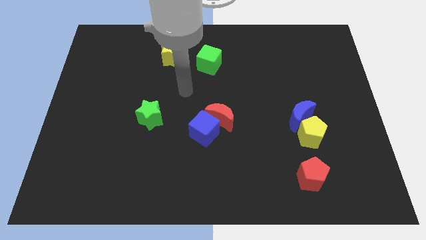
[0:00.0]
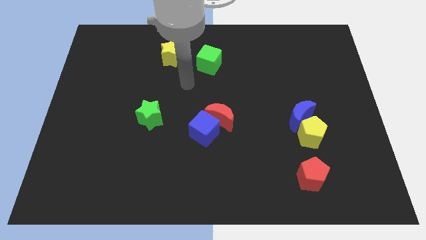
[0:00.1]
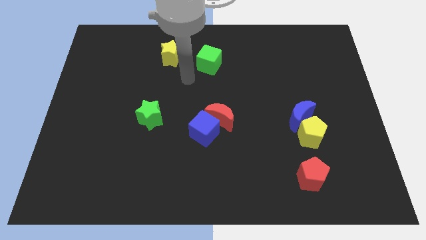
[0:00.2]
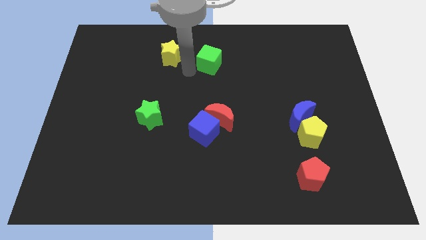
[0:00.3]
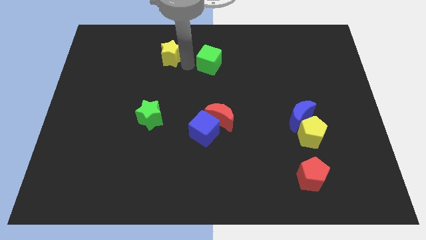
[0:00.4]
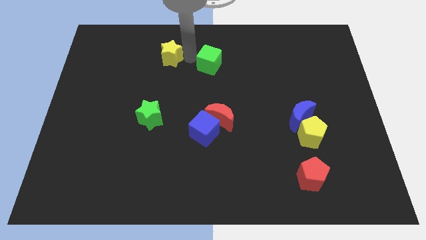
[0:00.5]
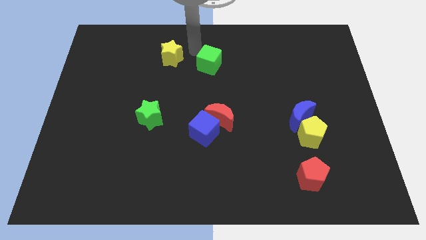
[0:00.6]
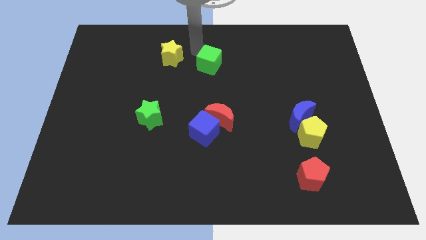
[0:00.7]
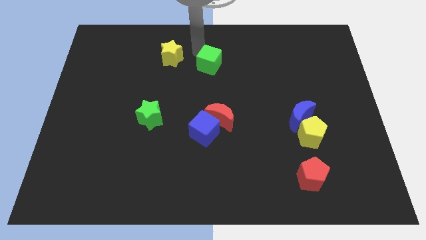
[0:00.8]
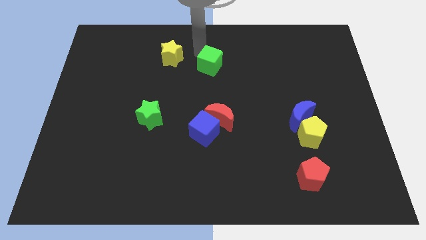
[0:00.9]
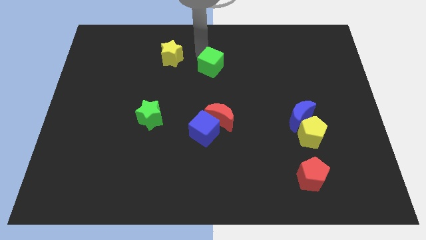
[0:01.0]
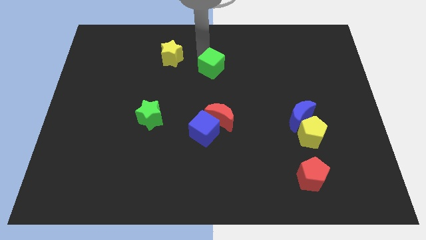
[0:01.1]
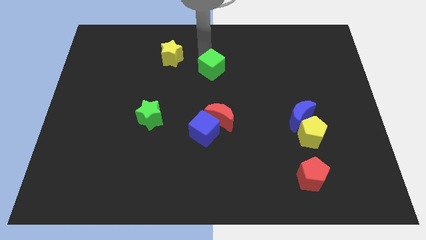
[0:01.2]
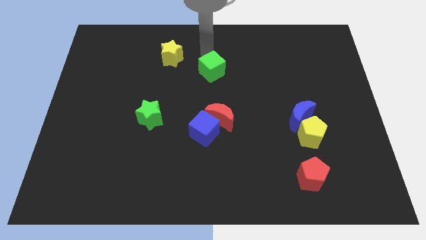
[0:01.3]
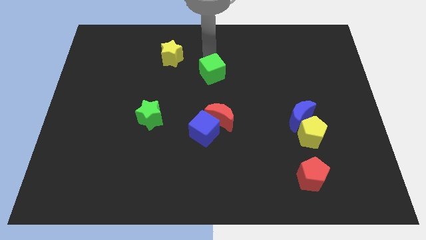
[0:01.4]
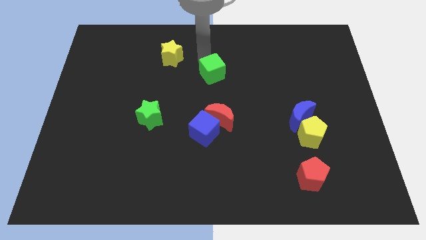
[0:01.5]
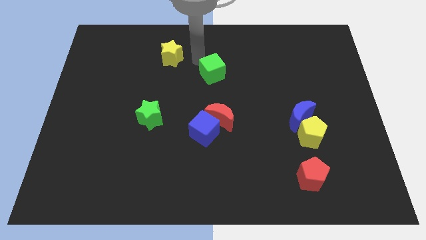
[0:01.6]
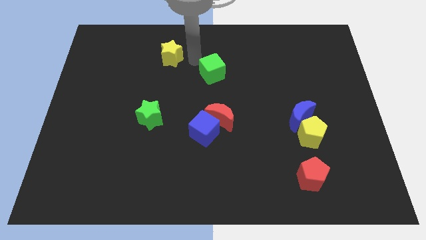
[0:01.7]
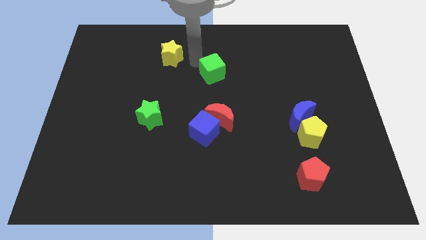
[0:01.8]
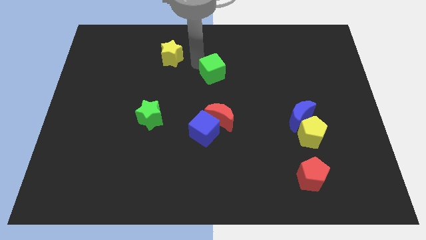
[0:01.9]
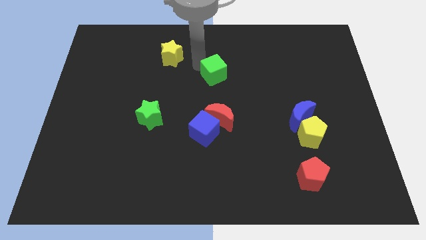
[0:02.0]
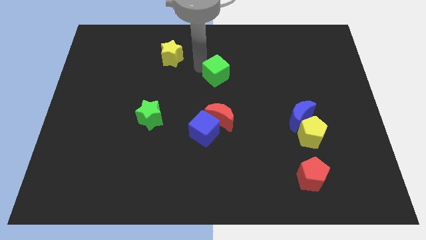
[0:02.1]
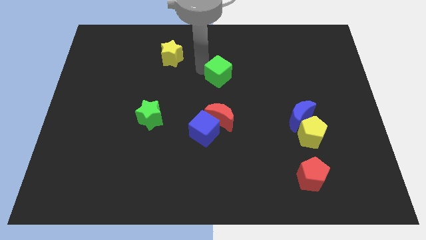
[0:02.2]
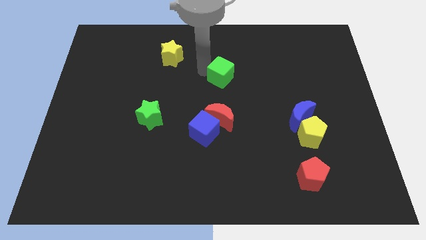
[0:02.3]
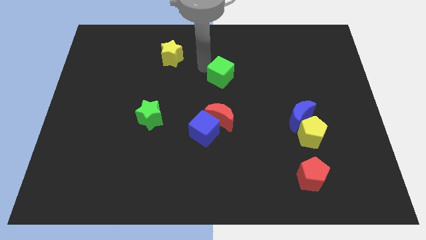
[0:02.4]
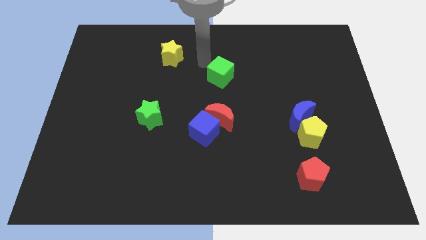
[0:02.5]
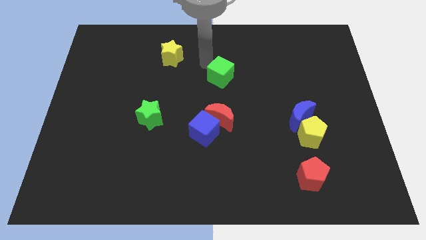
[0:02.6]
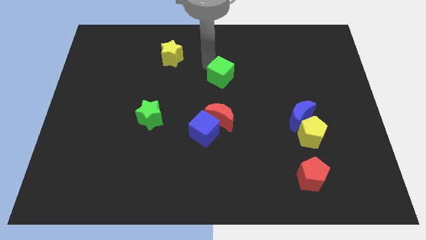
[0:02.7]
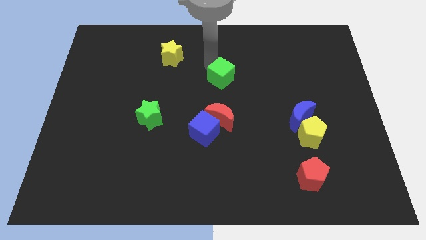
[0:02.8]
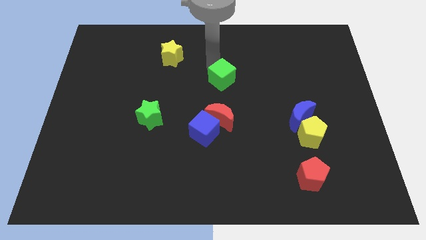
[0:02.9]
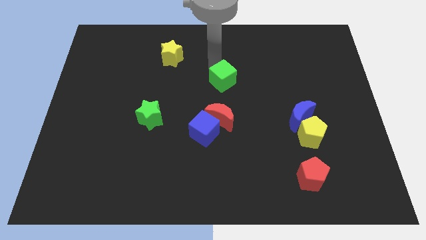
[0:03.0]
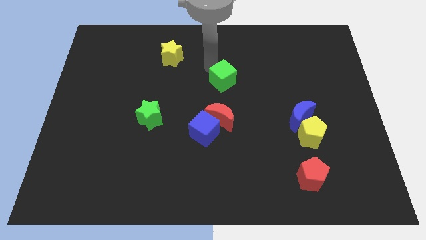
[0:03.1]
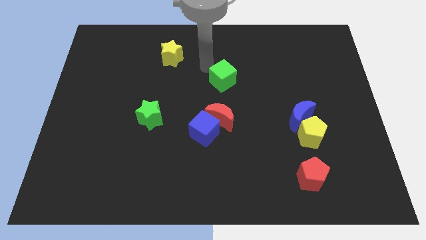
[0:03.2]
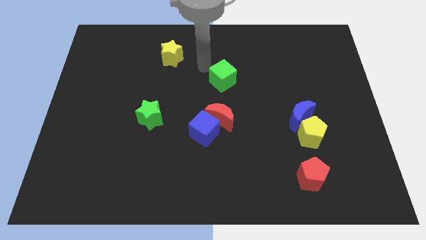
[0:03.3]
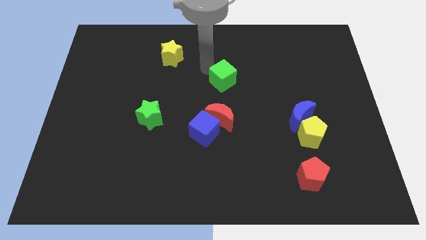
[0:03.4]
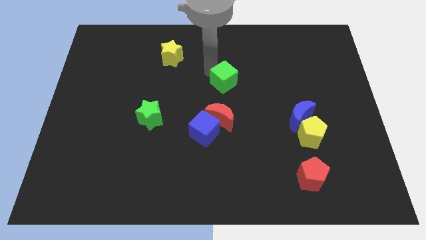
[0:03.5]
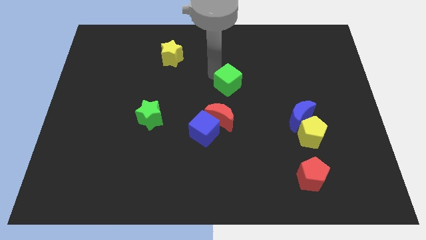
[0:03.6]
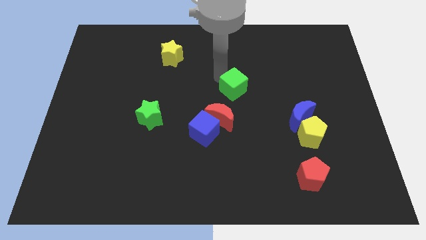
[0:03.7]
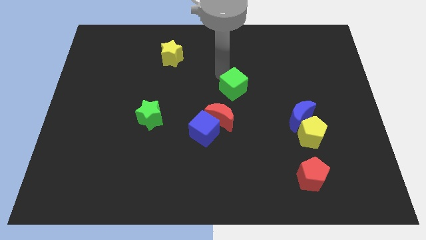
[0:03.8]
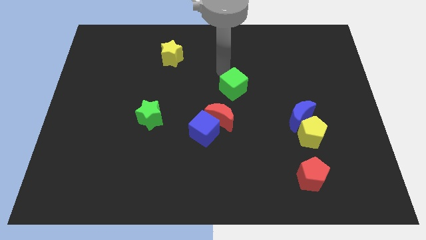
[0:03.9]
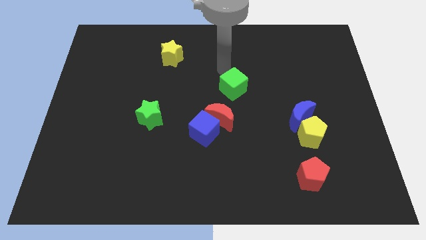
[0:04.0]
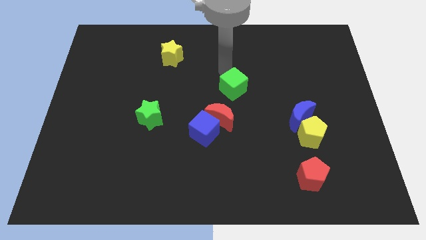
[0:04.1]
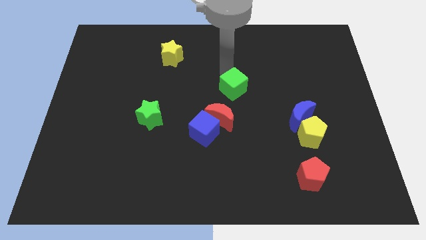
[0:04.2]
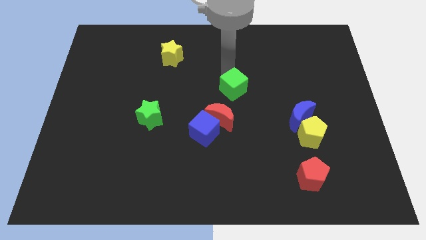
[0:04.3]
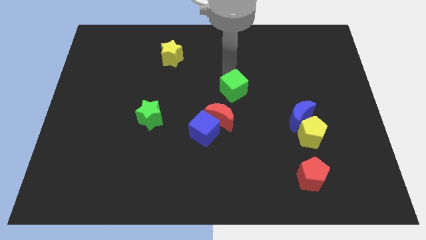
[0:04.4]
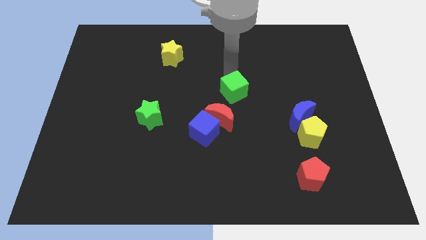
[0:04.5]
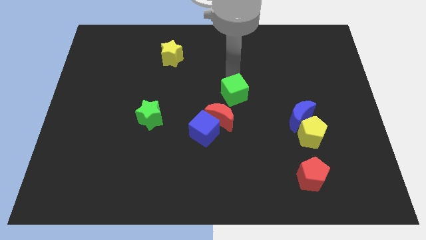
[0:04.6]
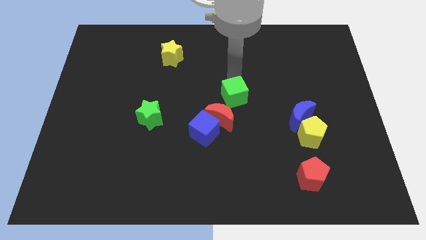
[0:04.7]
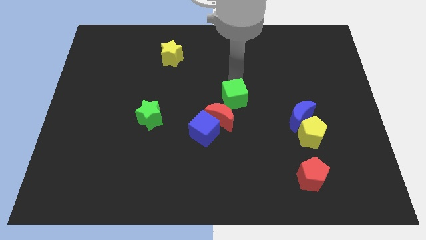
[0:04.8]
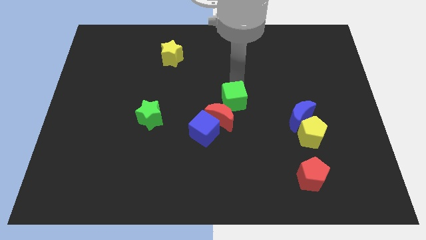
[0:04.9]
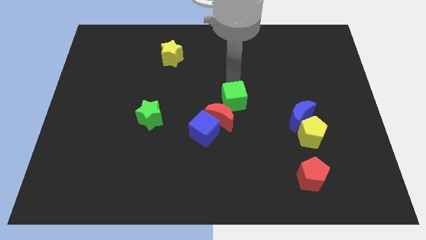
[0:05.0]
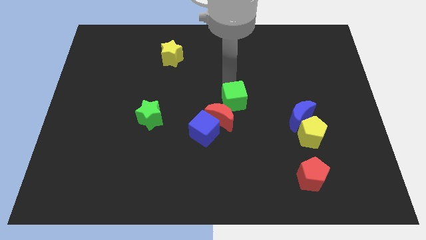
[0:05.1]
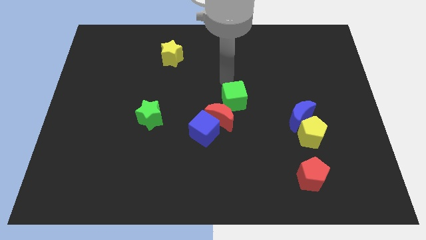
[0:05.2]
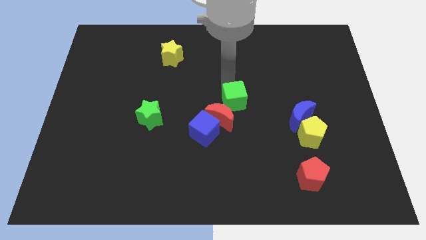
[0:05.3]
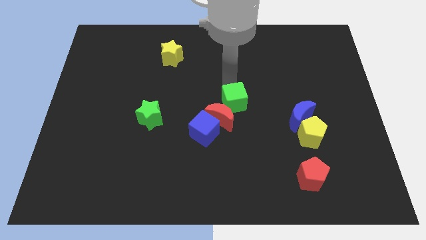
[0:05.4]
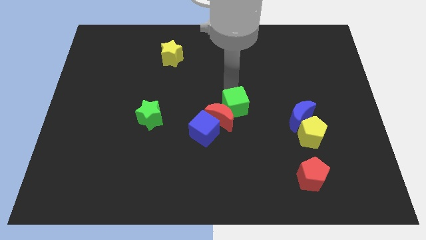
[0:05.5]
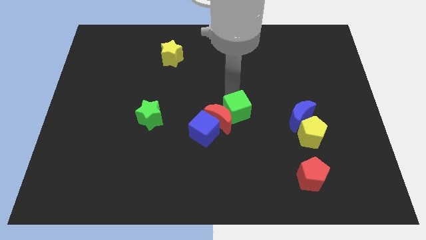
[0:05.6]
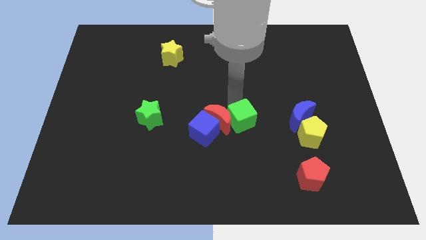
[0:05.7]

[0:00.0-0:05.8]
slide the green cube diagonally down and to the right of the red moon

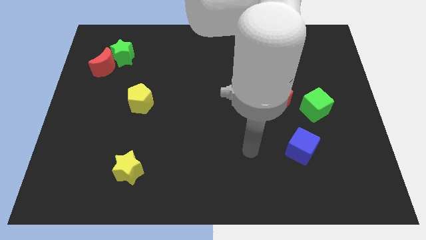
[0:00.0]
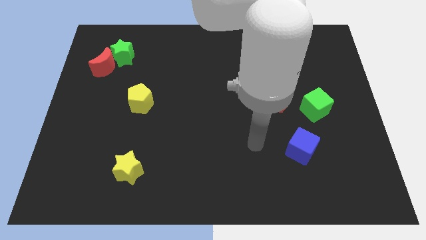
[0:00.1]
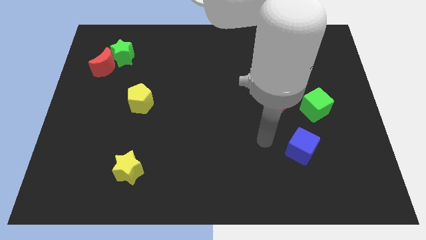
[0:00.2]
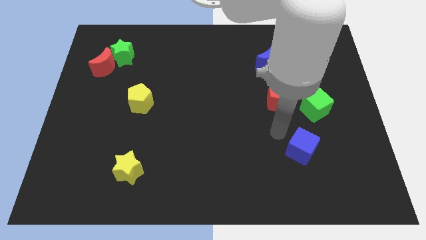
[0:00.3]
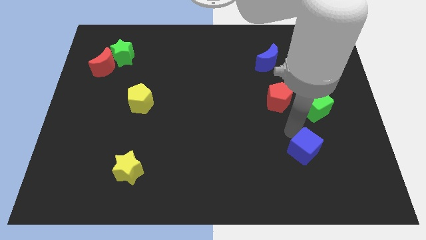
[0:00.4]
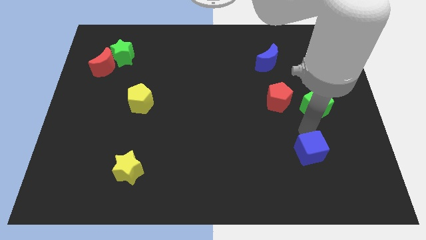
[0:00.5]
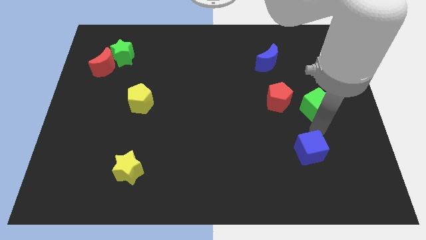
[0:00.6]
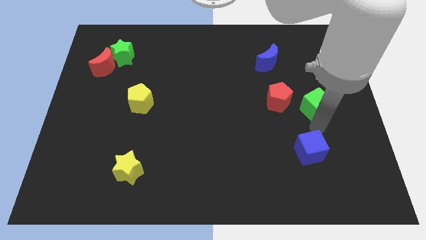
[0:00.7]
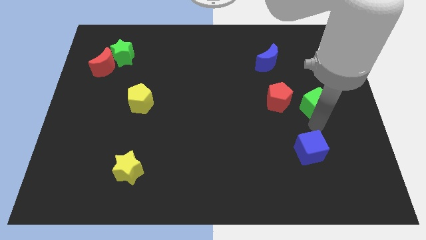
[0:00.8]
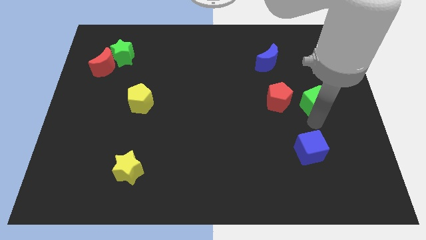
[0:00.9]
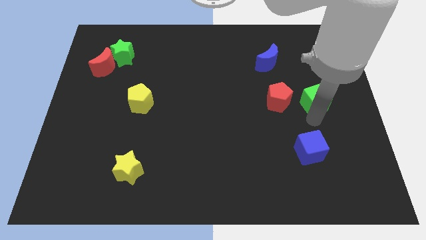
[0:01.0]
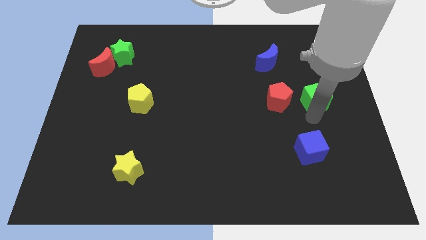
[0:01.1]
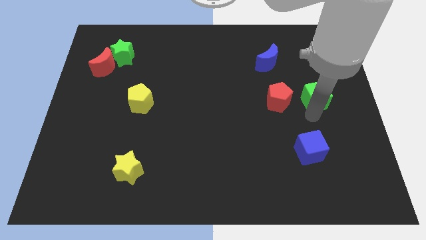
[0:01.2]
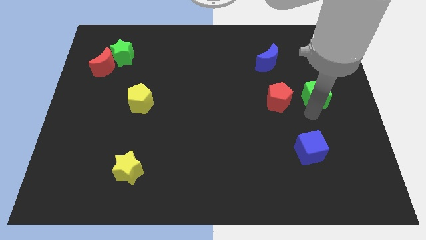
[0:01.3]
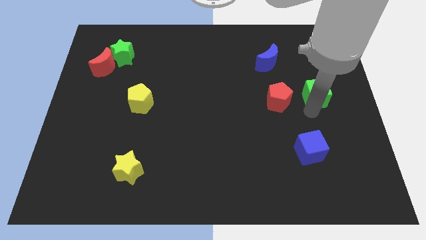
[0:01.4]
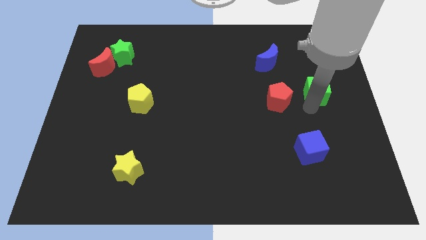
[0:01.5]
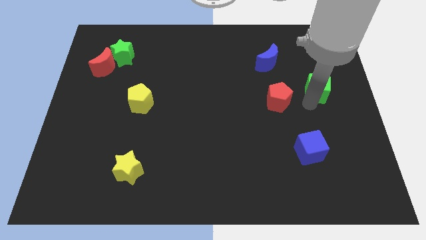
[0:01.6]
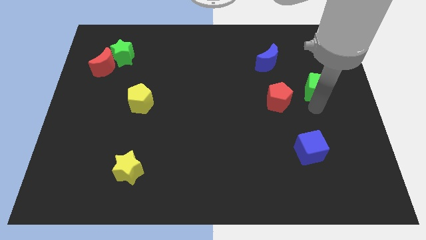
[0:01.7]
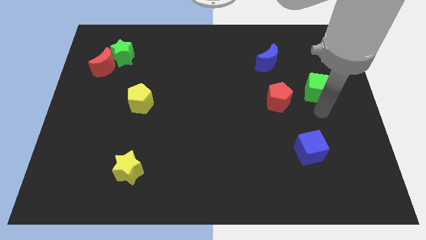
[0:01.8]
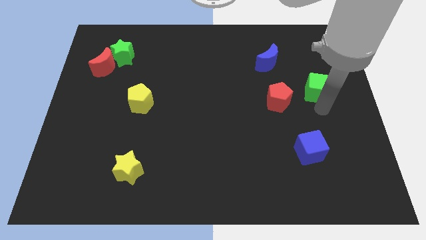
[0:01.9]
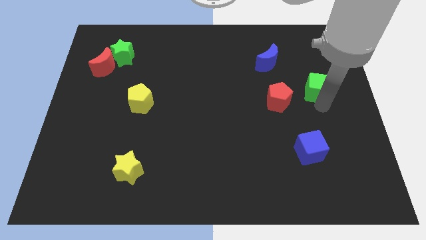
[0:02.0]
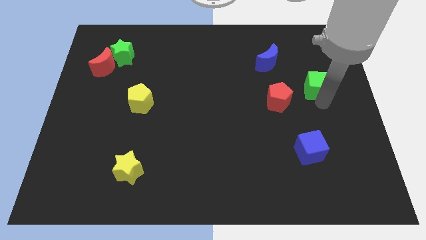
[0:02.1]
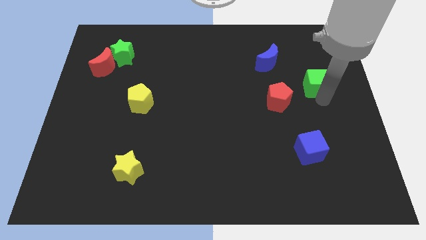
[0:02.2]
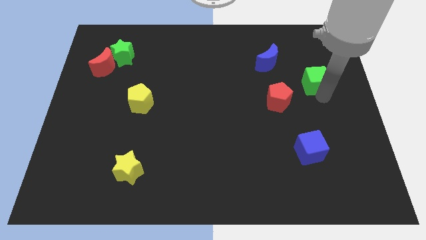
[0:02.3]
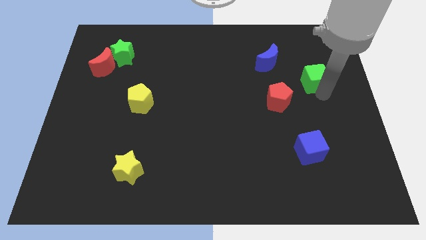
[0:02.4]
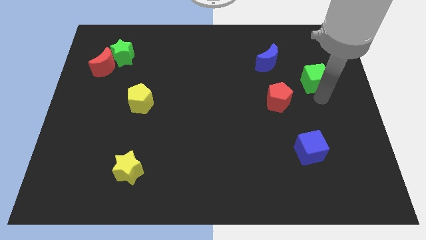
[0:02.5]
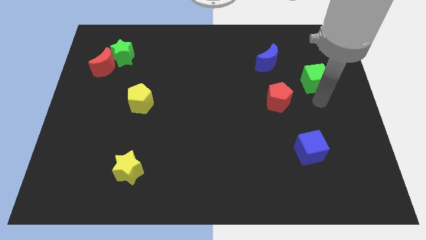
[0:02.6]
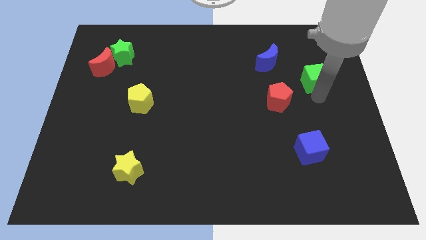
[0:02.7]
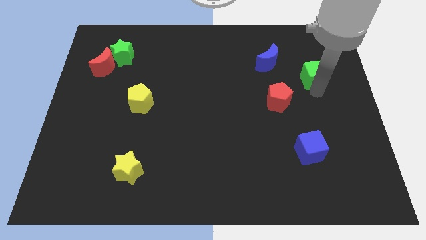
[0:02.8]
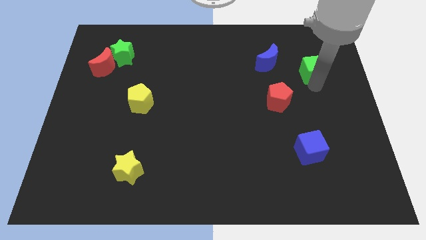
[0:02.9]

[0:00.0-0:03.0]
slide the green cube right of the blue moon
